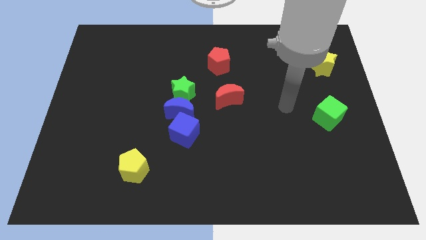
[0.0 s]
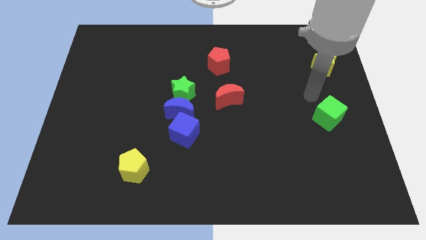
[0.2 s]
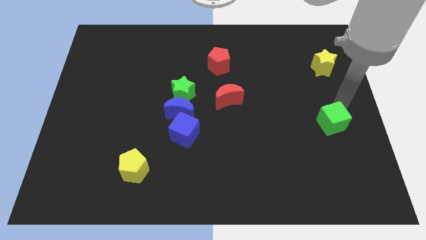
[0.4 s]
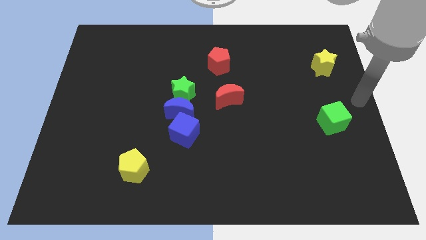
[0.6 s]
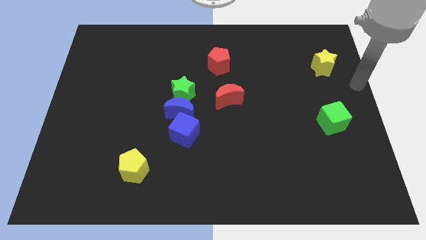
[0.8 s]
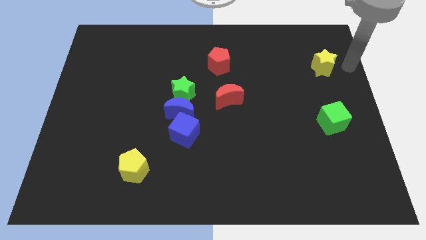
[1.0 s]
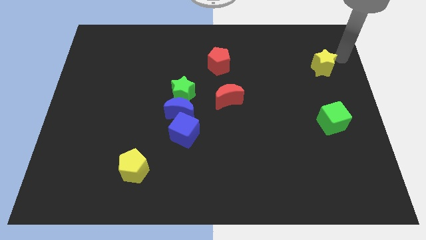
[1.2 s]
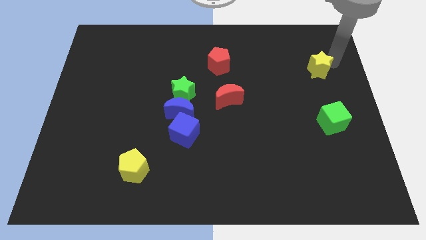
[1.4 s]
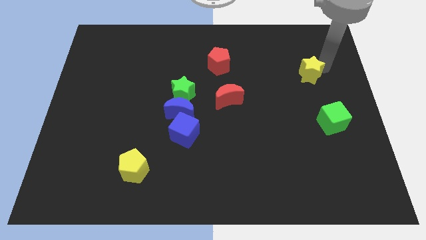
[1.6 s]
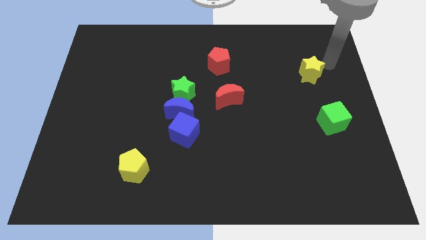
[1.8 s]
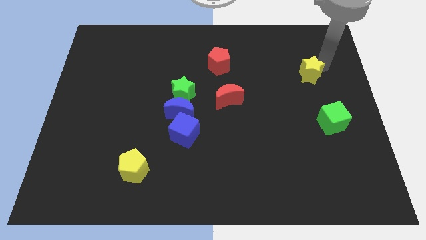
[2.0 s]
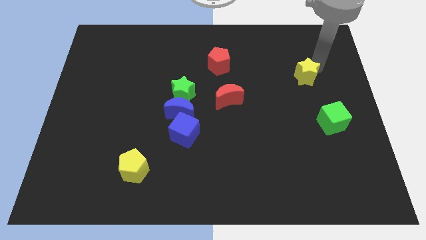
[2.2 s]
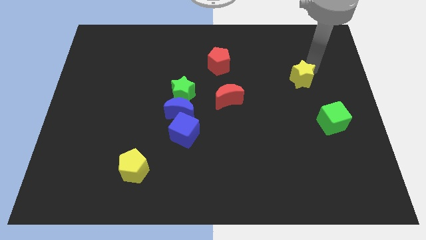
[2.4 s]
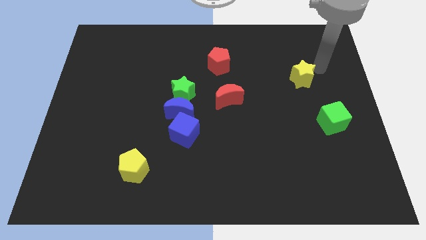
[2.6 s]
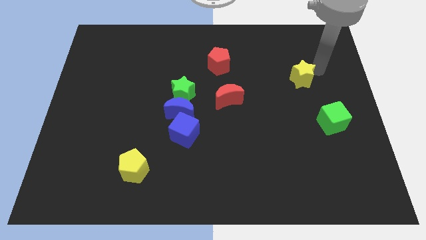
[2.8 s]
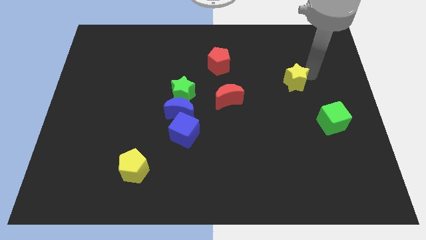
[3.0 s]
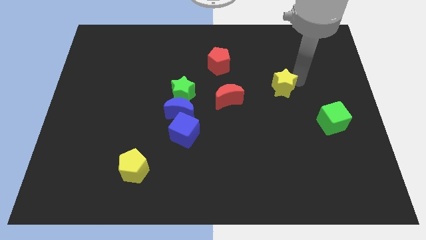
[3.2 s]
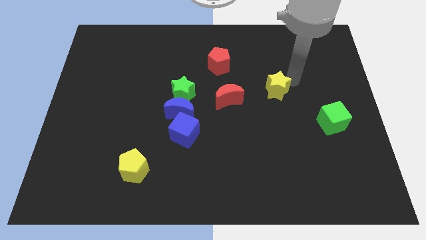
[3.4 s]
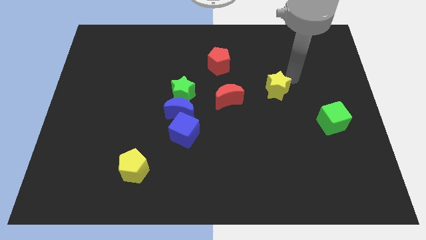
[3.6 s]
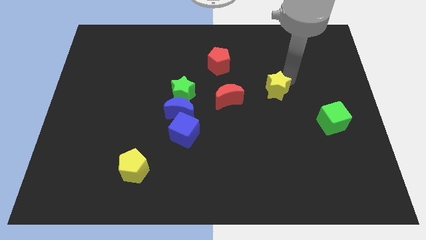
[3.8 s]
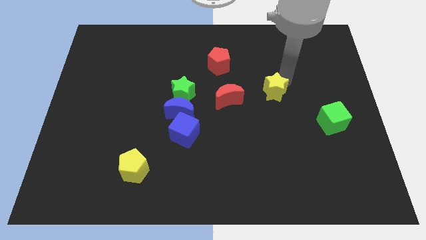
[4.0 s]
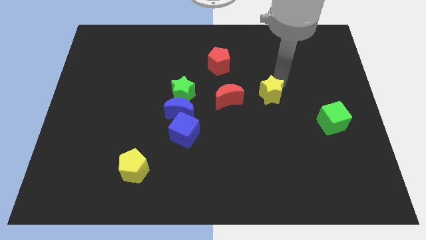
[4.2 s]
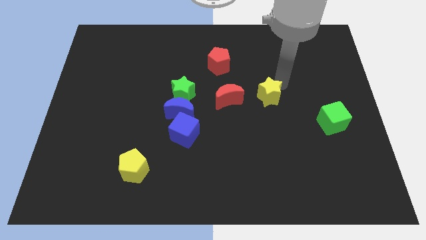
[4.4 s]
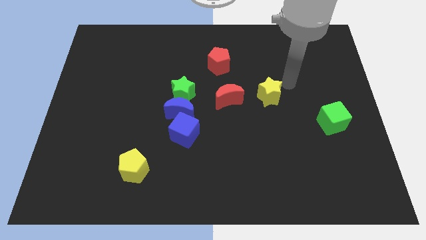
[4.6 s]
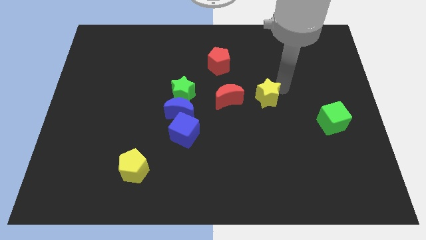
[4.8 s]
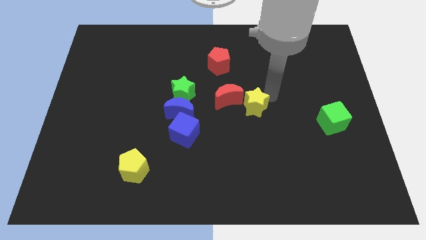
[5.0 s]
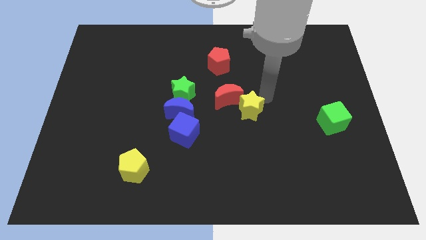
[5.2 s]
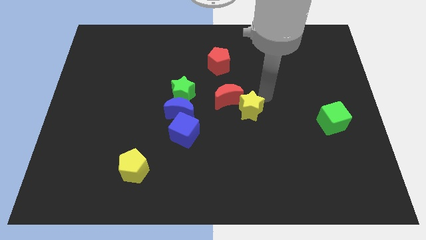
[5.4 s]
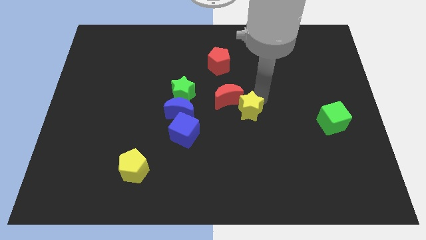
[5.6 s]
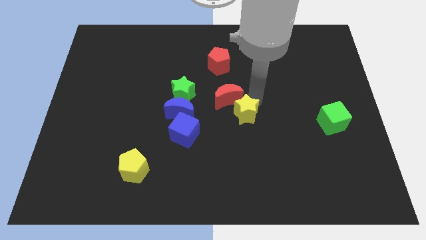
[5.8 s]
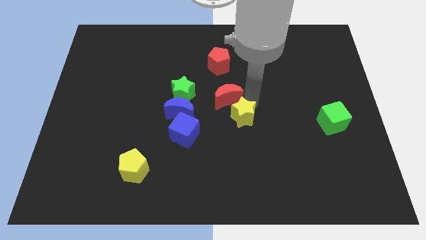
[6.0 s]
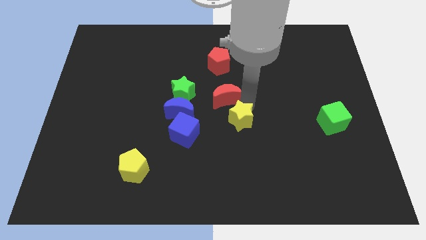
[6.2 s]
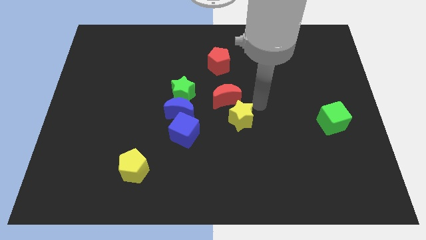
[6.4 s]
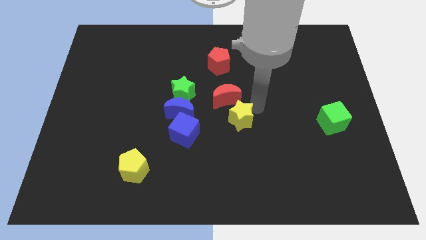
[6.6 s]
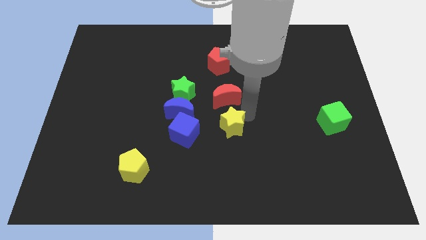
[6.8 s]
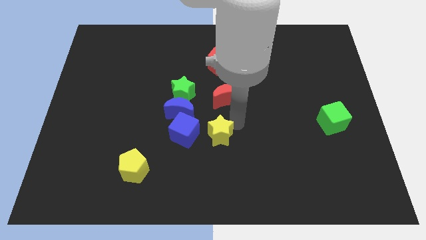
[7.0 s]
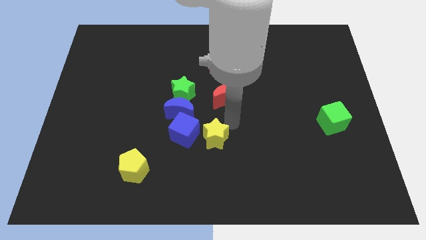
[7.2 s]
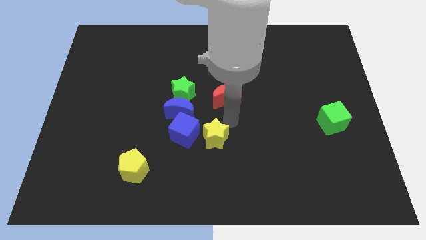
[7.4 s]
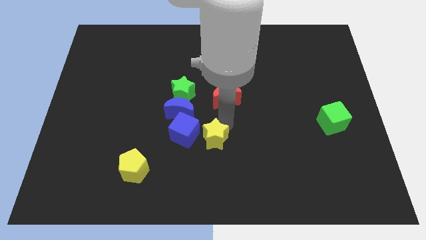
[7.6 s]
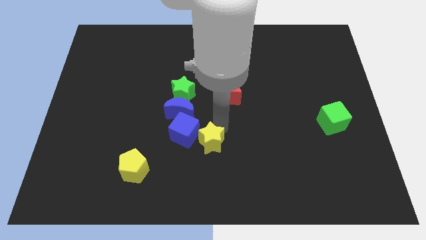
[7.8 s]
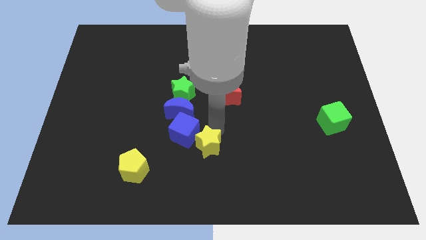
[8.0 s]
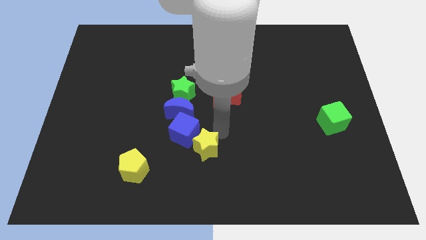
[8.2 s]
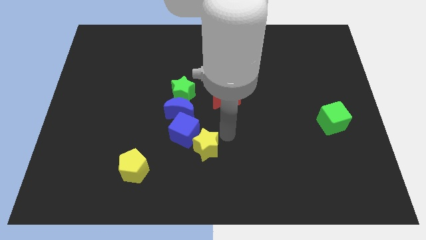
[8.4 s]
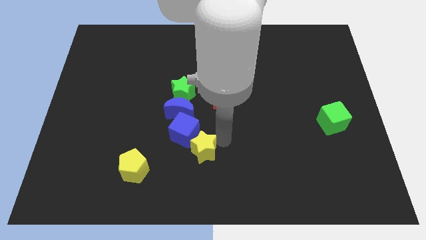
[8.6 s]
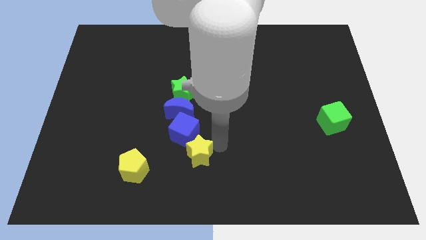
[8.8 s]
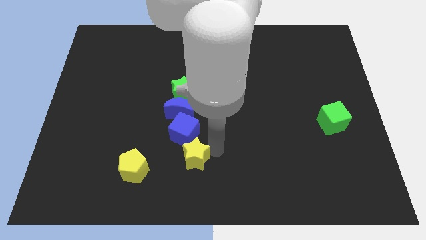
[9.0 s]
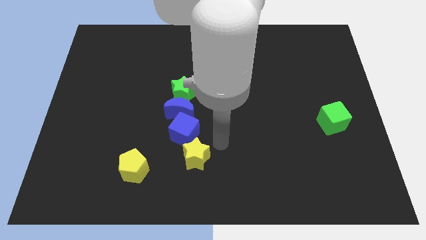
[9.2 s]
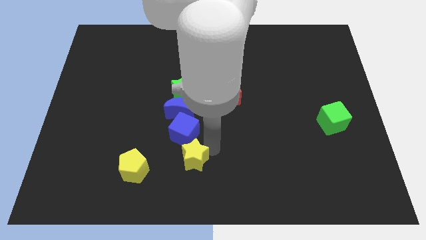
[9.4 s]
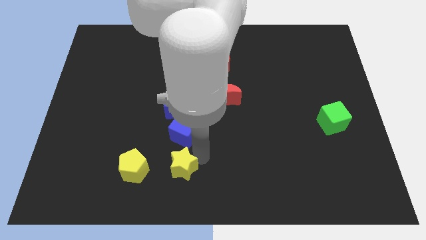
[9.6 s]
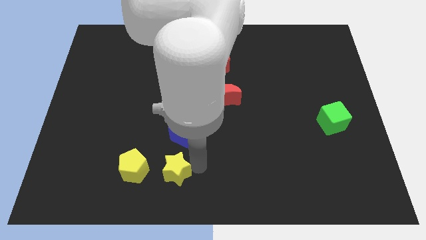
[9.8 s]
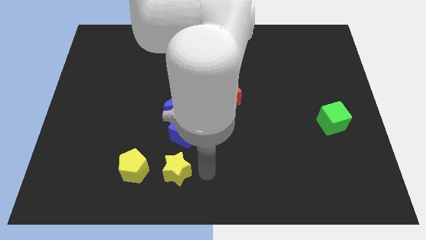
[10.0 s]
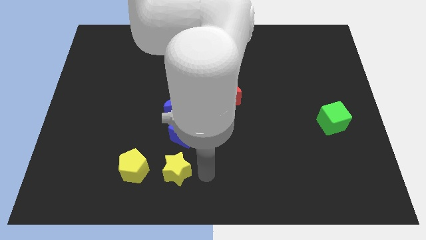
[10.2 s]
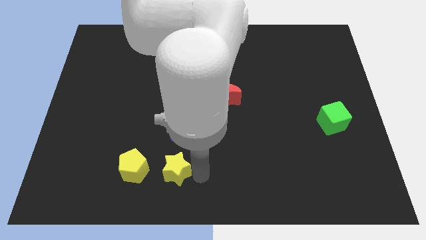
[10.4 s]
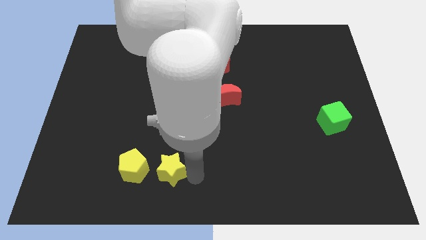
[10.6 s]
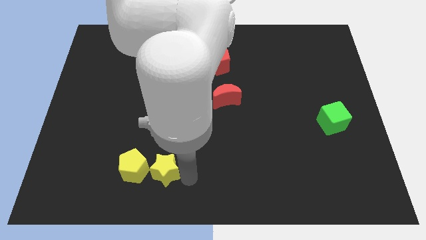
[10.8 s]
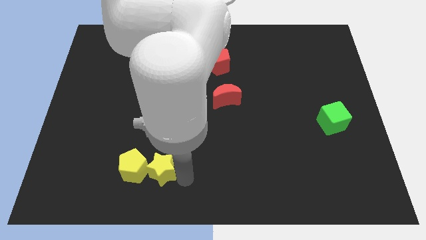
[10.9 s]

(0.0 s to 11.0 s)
put the yellow star close to the yellow pentagon

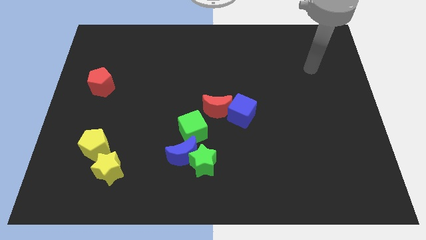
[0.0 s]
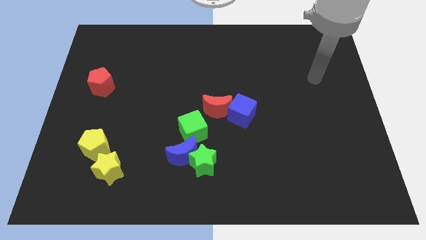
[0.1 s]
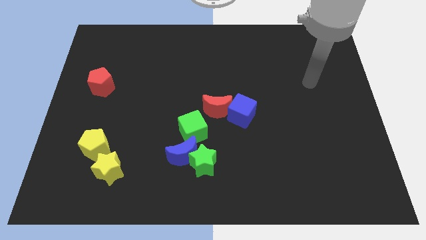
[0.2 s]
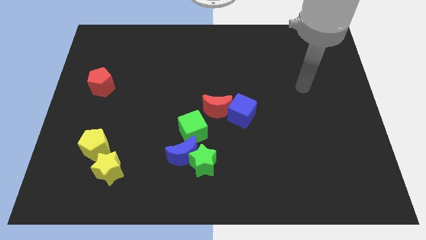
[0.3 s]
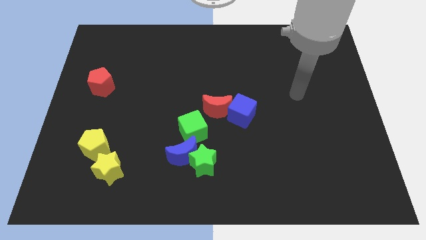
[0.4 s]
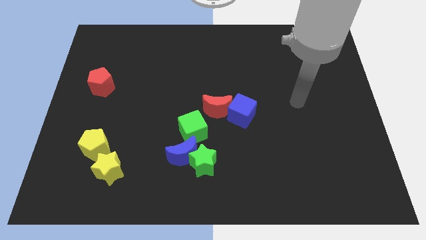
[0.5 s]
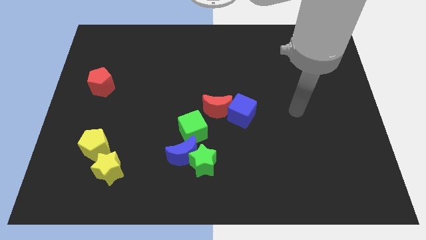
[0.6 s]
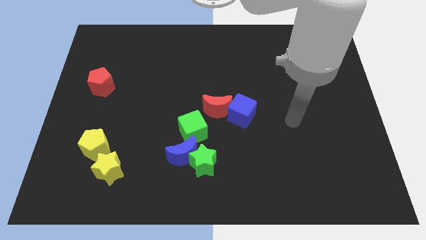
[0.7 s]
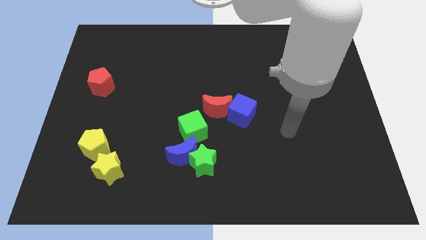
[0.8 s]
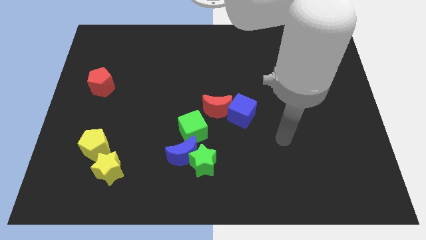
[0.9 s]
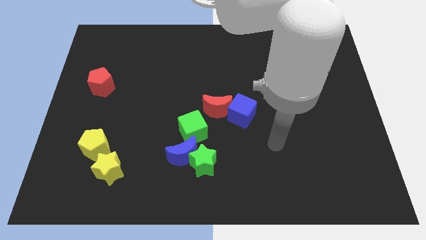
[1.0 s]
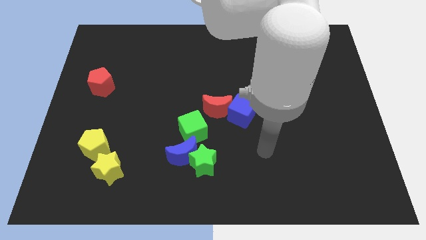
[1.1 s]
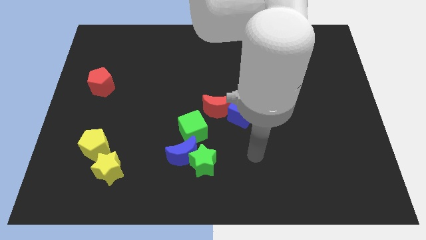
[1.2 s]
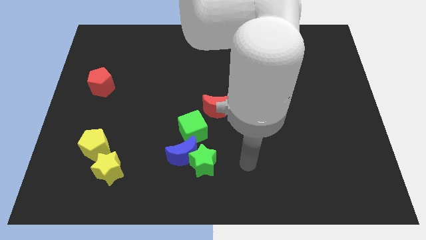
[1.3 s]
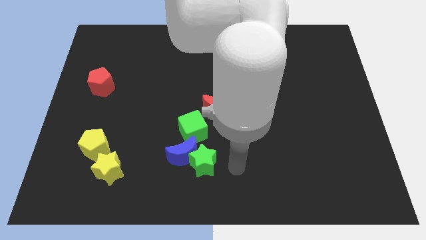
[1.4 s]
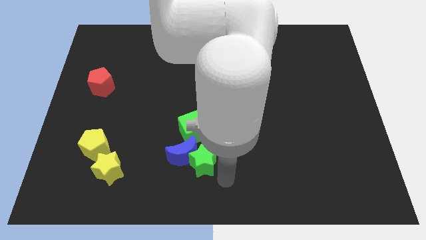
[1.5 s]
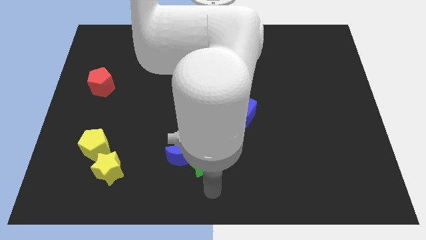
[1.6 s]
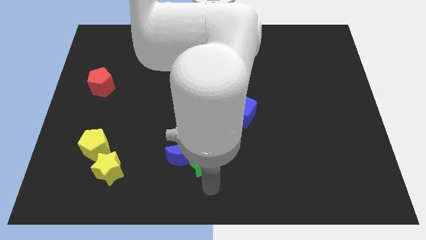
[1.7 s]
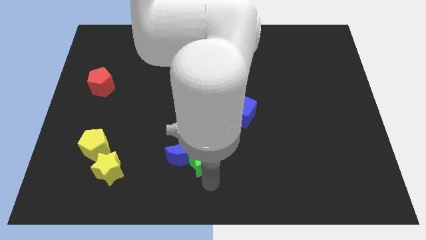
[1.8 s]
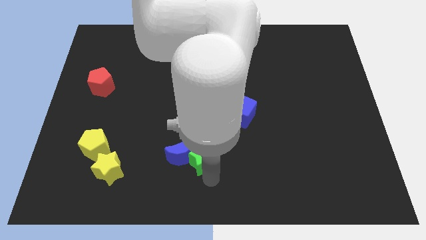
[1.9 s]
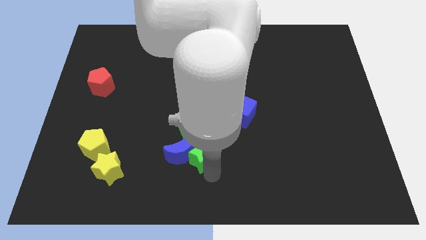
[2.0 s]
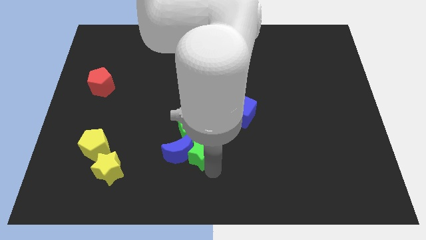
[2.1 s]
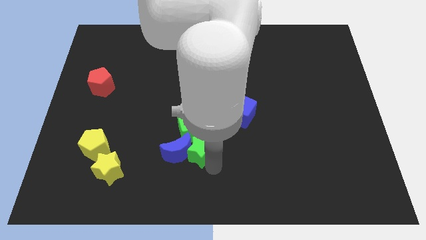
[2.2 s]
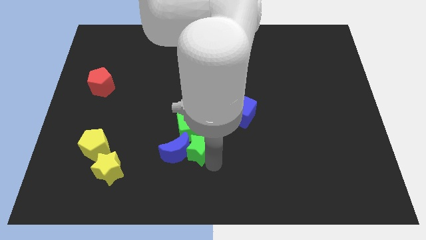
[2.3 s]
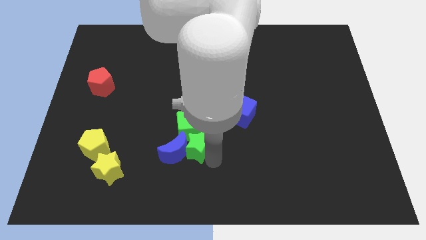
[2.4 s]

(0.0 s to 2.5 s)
slide the green star to the green cube

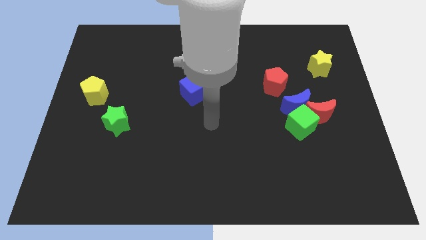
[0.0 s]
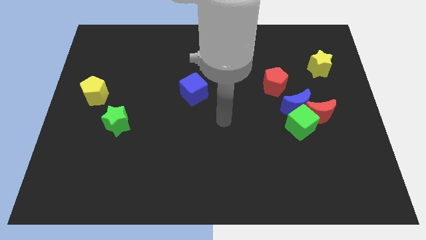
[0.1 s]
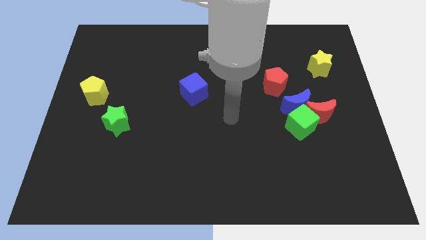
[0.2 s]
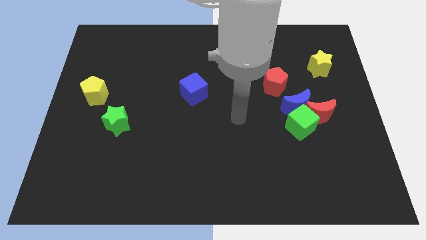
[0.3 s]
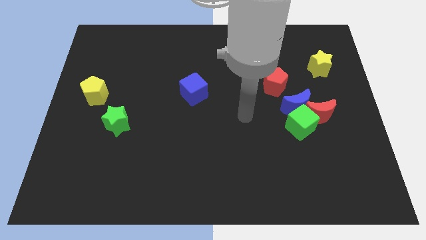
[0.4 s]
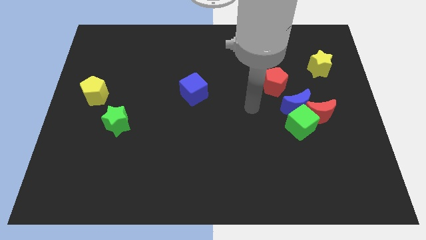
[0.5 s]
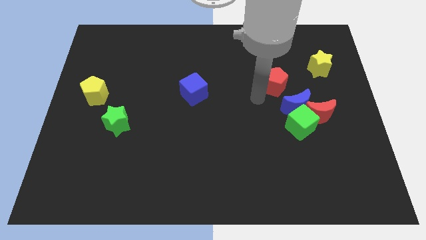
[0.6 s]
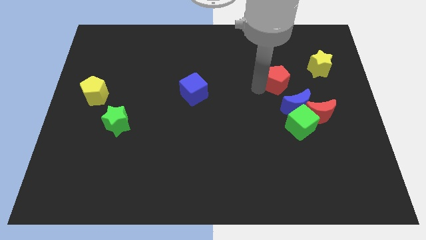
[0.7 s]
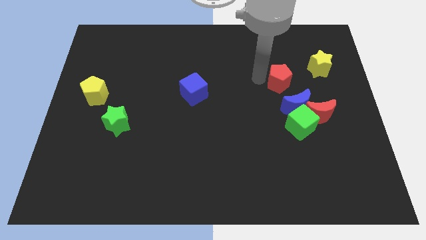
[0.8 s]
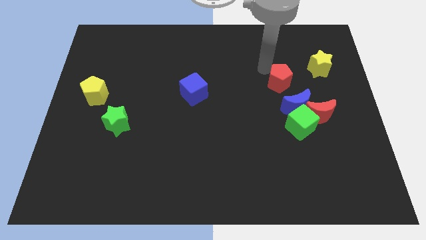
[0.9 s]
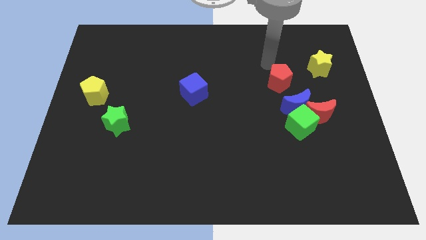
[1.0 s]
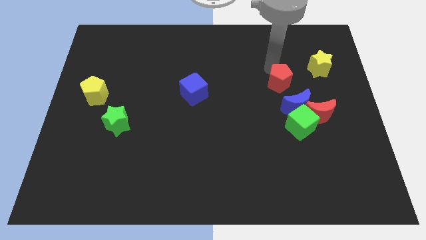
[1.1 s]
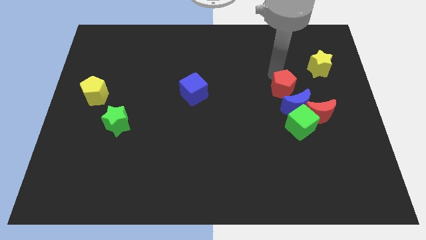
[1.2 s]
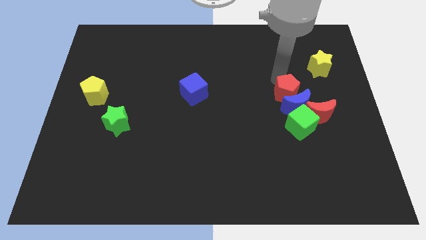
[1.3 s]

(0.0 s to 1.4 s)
move the red pentagon close to the blue moon
